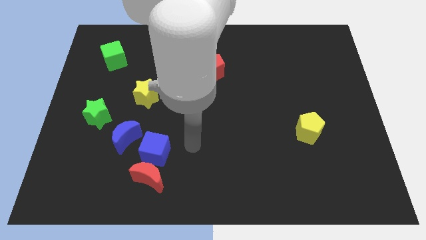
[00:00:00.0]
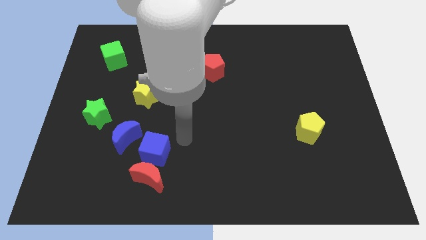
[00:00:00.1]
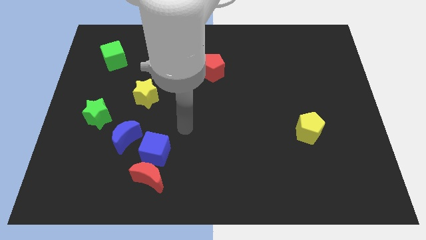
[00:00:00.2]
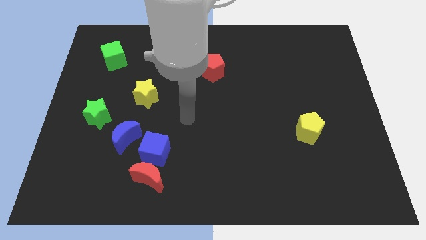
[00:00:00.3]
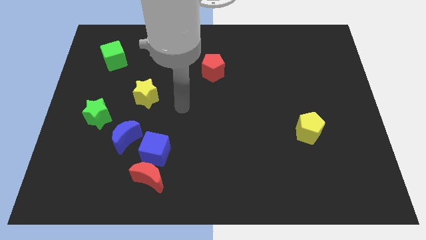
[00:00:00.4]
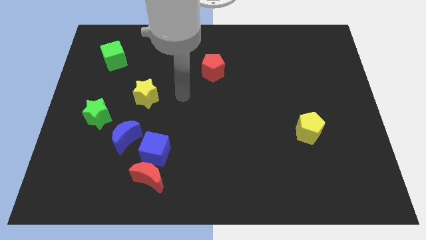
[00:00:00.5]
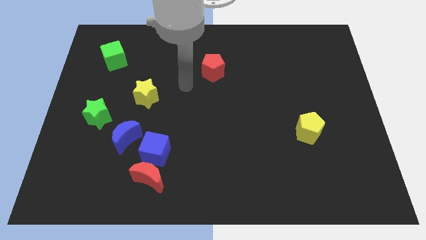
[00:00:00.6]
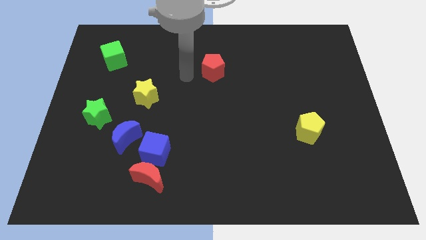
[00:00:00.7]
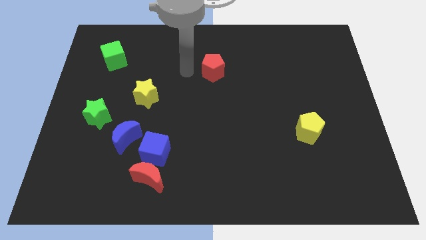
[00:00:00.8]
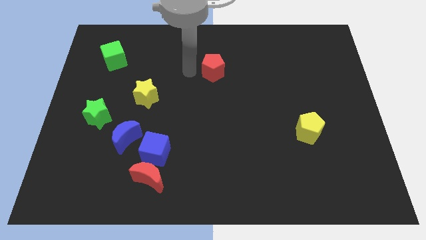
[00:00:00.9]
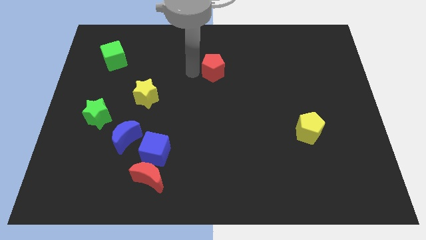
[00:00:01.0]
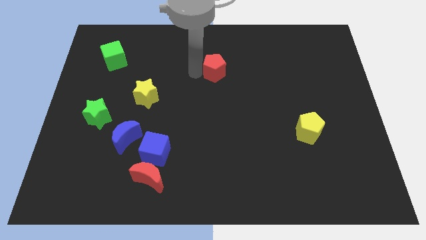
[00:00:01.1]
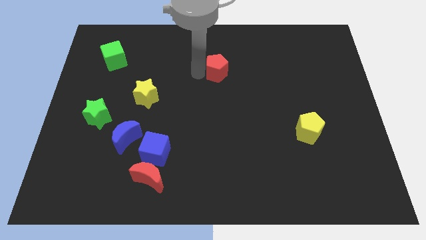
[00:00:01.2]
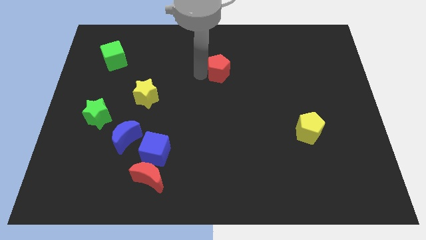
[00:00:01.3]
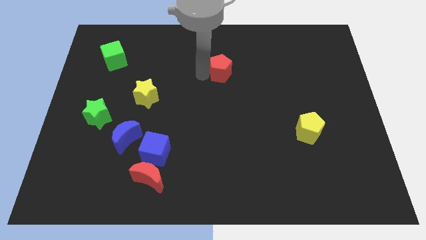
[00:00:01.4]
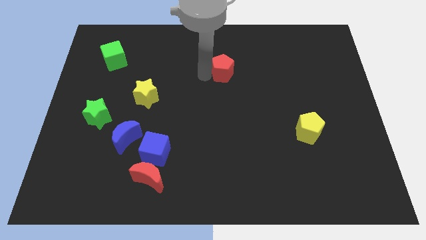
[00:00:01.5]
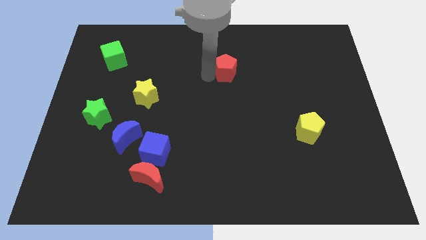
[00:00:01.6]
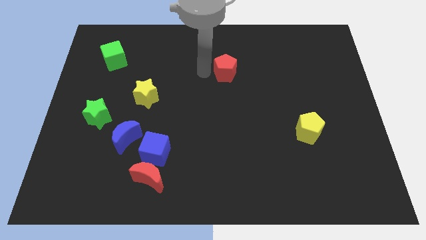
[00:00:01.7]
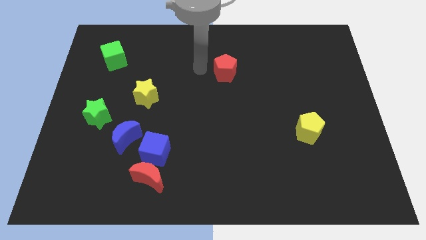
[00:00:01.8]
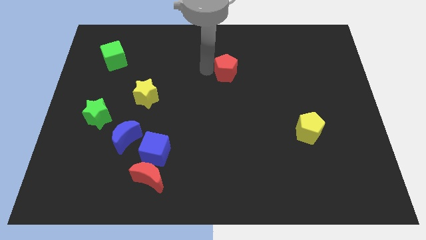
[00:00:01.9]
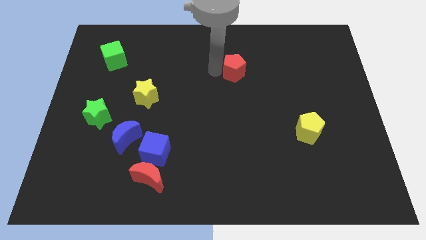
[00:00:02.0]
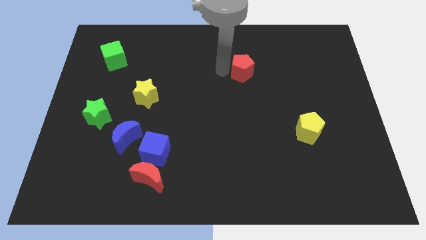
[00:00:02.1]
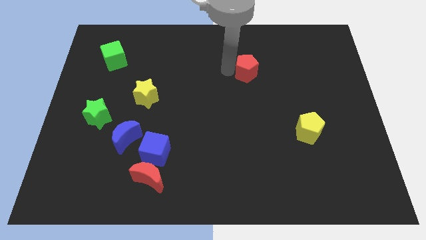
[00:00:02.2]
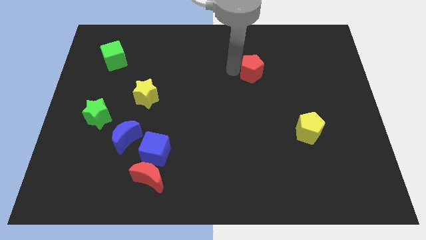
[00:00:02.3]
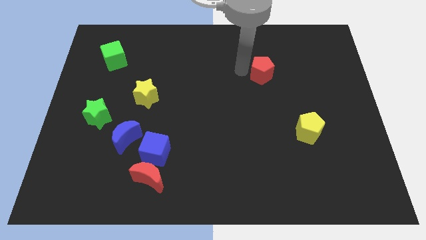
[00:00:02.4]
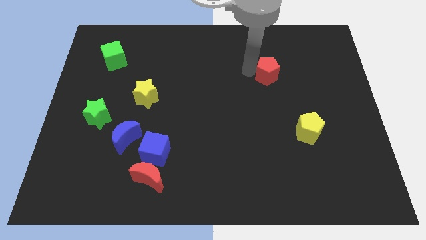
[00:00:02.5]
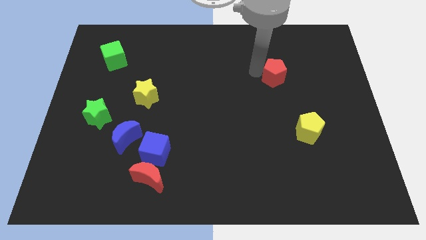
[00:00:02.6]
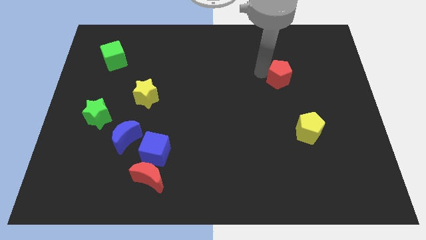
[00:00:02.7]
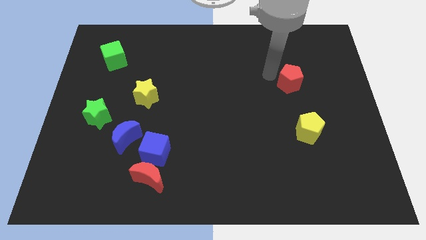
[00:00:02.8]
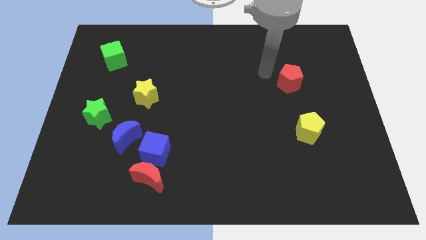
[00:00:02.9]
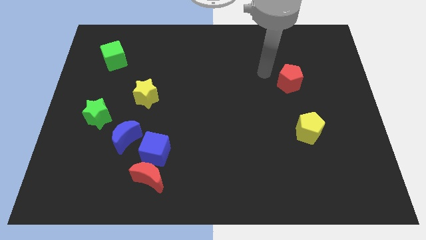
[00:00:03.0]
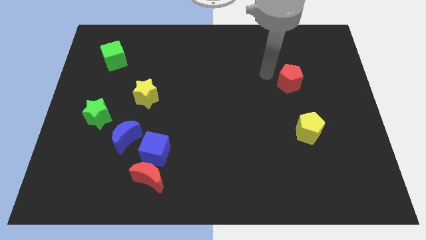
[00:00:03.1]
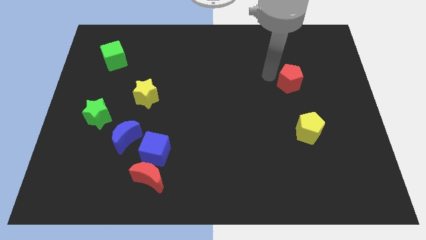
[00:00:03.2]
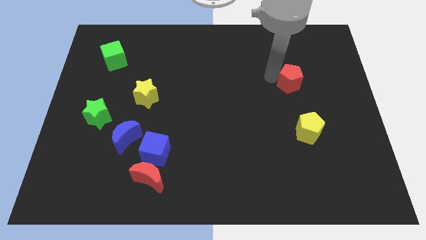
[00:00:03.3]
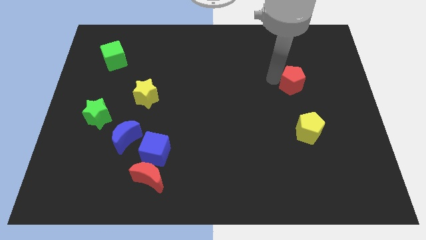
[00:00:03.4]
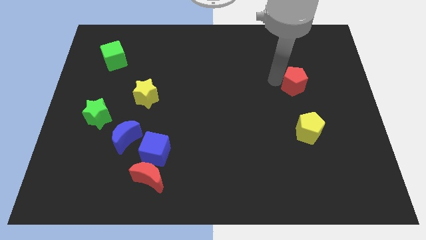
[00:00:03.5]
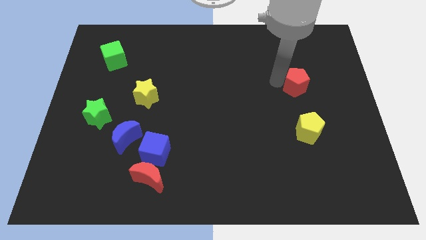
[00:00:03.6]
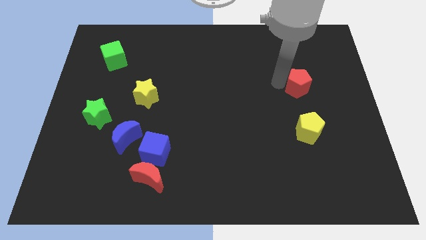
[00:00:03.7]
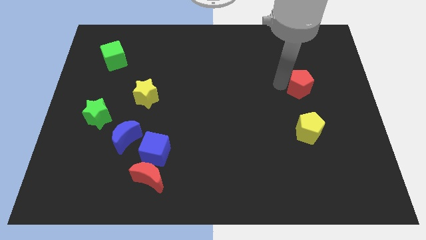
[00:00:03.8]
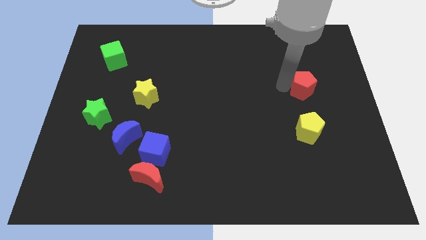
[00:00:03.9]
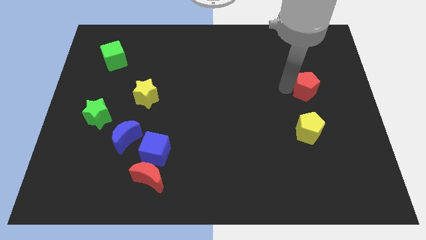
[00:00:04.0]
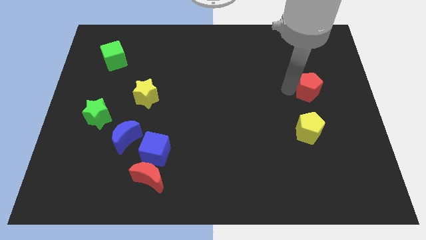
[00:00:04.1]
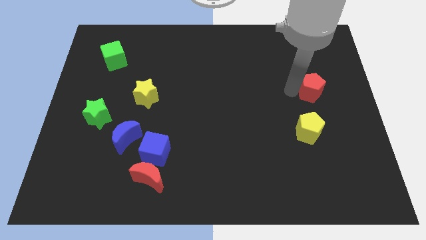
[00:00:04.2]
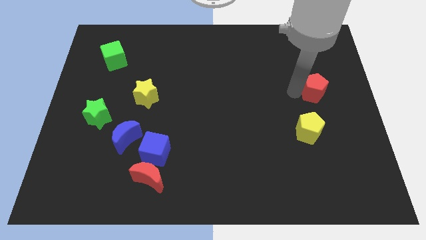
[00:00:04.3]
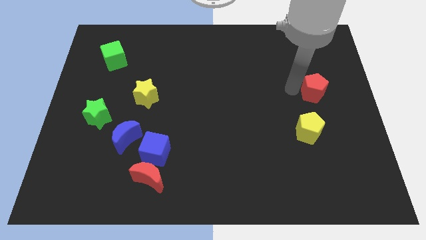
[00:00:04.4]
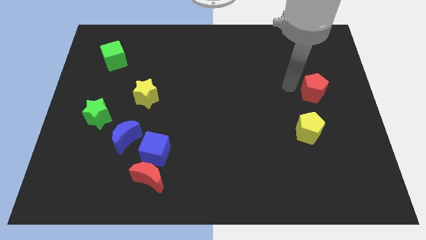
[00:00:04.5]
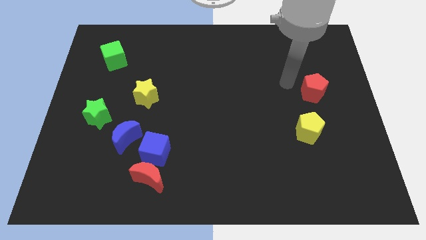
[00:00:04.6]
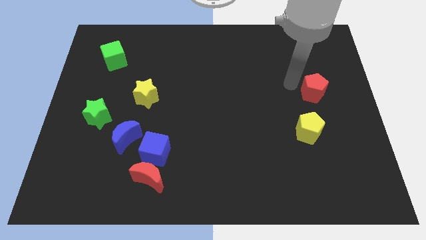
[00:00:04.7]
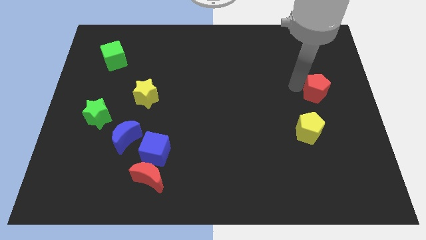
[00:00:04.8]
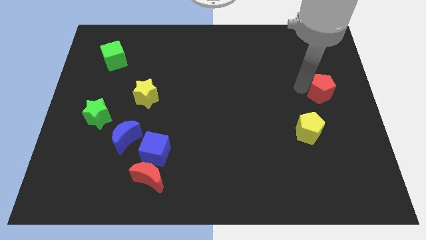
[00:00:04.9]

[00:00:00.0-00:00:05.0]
put the red pentagon to the right side of the board

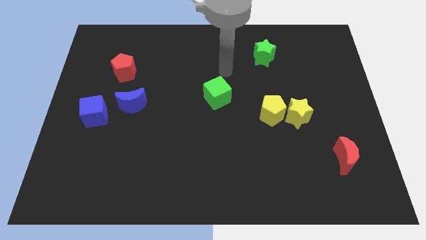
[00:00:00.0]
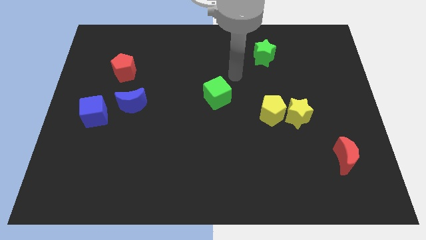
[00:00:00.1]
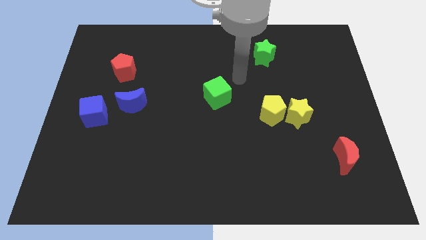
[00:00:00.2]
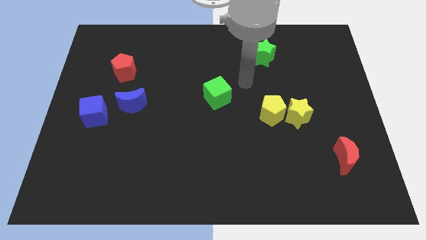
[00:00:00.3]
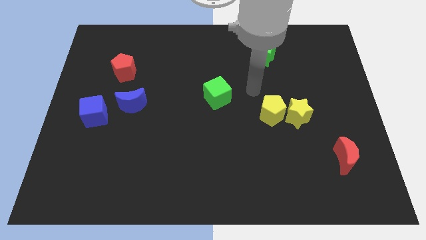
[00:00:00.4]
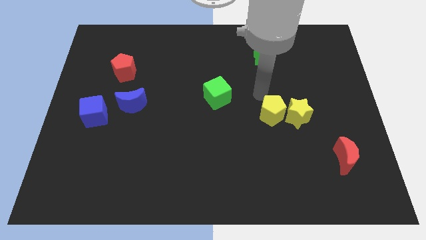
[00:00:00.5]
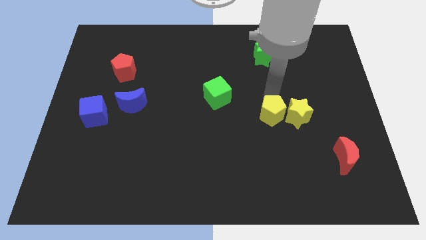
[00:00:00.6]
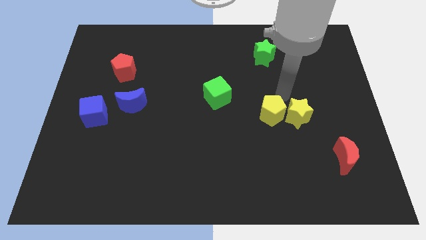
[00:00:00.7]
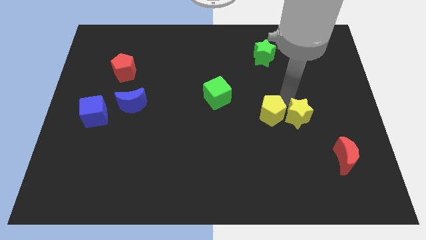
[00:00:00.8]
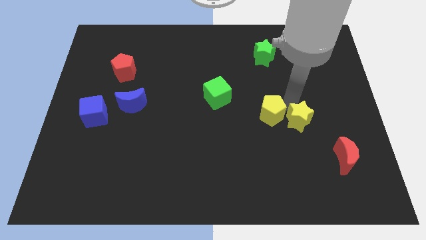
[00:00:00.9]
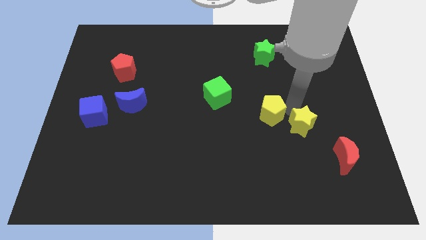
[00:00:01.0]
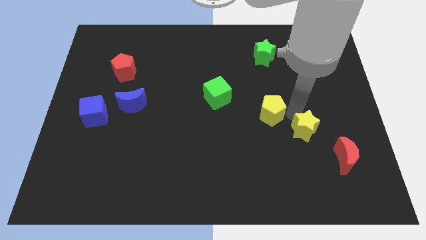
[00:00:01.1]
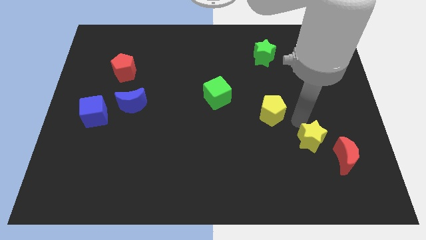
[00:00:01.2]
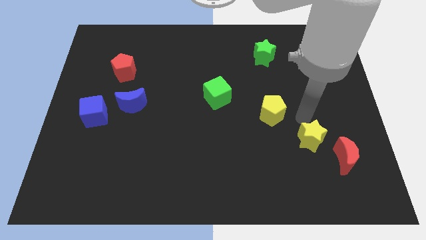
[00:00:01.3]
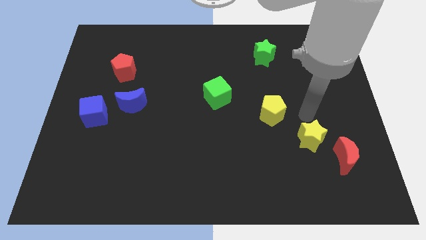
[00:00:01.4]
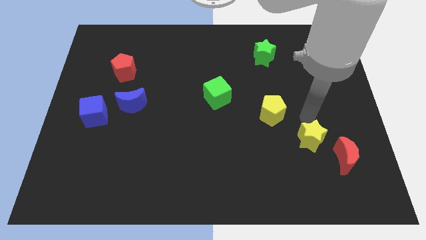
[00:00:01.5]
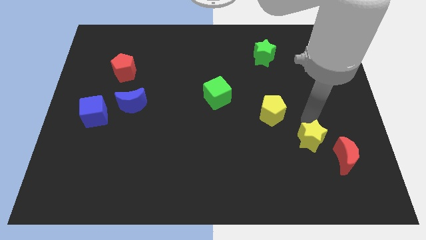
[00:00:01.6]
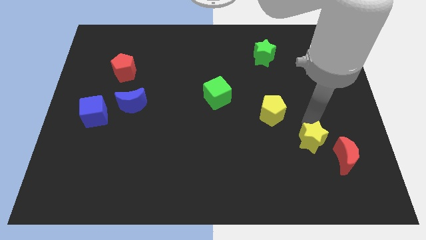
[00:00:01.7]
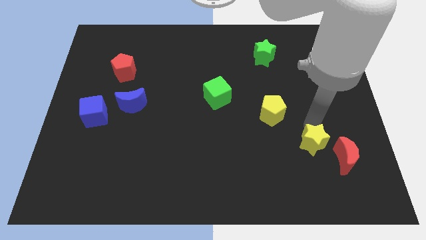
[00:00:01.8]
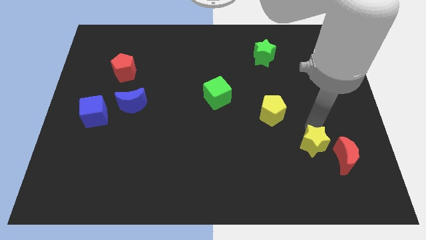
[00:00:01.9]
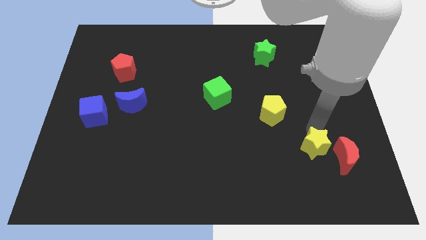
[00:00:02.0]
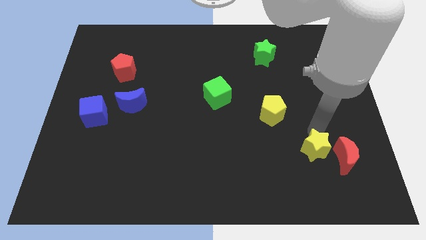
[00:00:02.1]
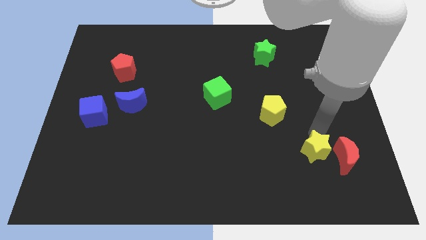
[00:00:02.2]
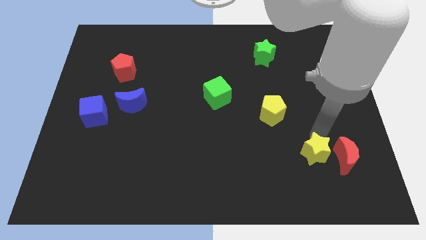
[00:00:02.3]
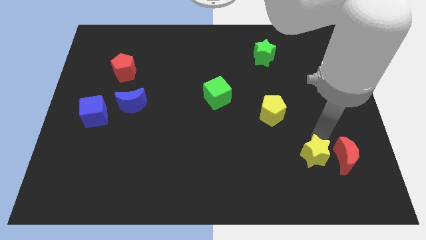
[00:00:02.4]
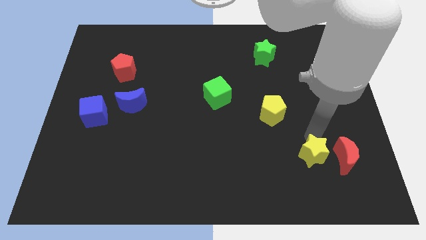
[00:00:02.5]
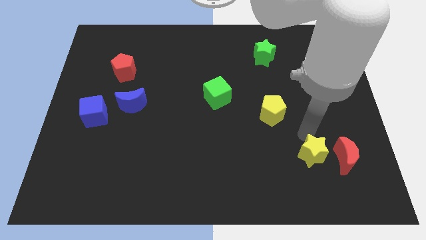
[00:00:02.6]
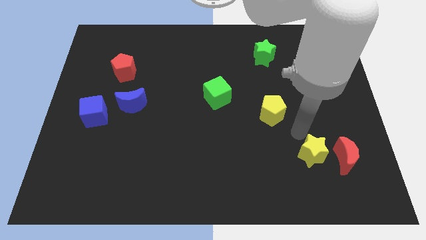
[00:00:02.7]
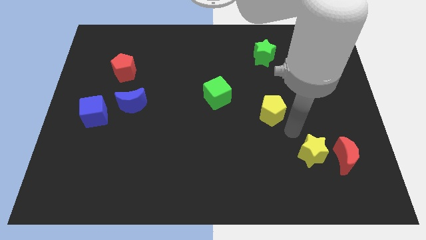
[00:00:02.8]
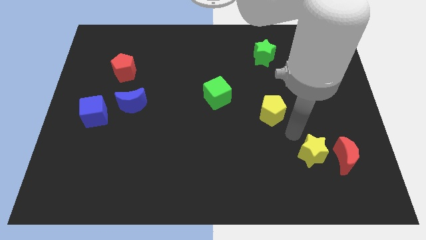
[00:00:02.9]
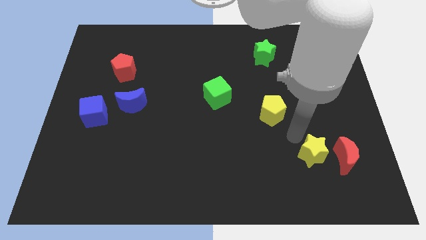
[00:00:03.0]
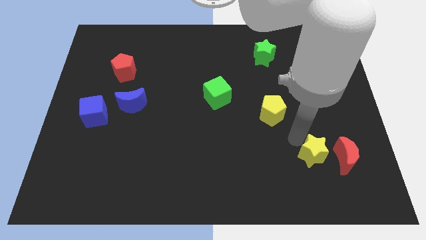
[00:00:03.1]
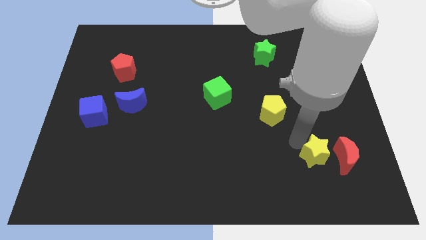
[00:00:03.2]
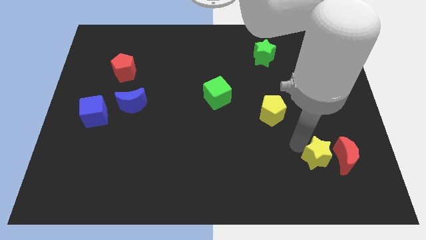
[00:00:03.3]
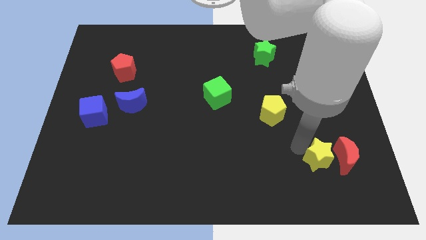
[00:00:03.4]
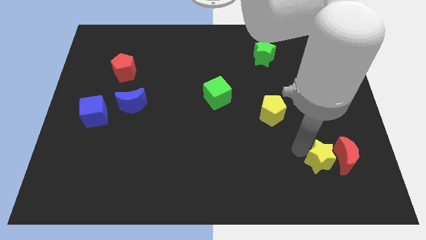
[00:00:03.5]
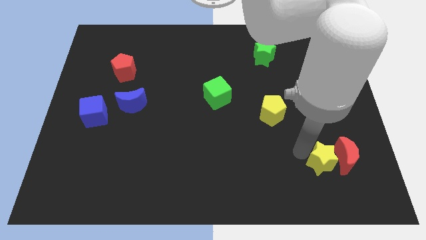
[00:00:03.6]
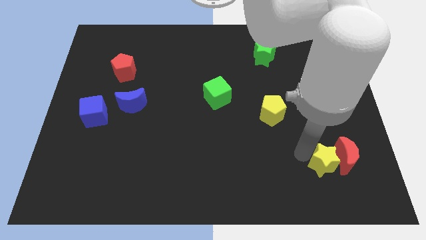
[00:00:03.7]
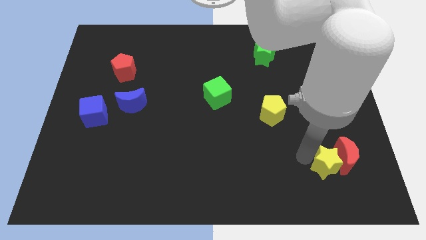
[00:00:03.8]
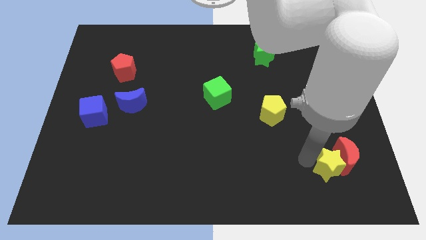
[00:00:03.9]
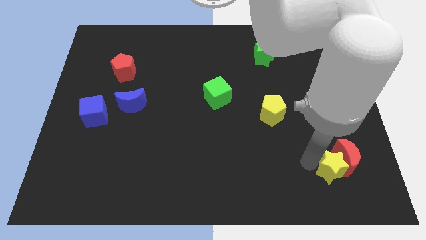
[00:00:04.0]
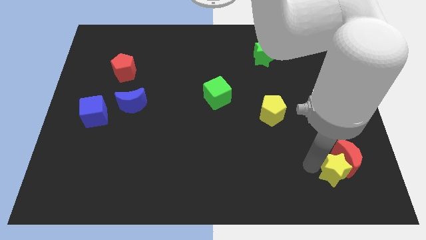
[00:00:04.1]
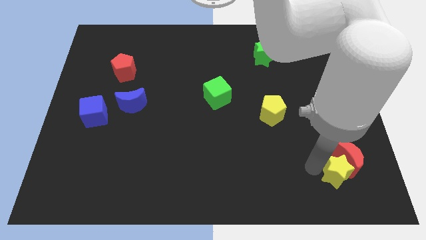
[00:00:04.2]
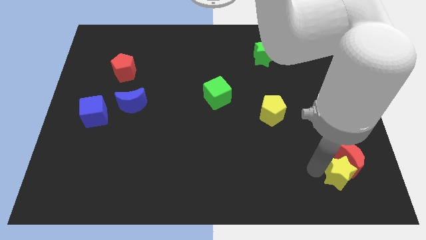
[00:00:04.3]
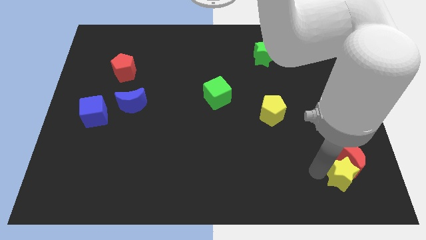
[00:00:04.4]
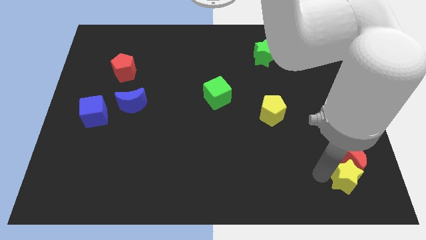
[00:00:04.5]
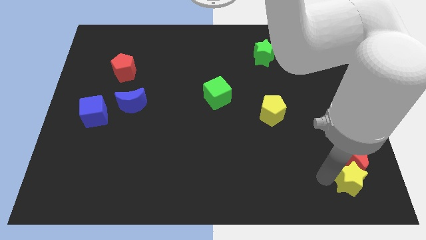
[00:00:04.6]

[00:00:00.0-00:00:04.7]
put the yellow star to the bottom right of the board
